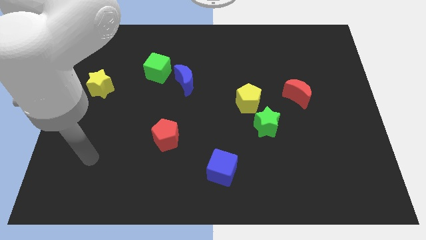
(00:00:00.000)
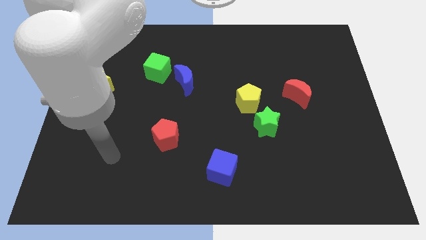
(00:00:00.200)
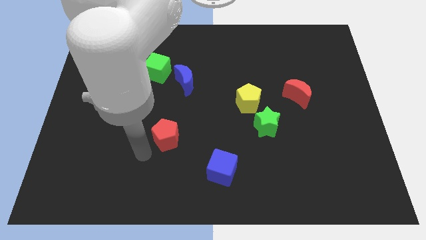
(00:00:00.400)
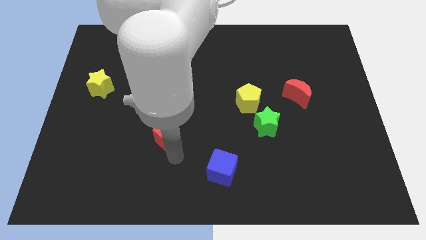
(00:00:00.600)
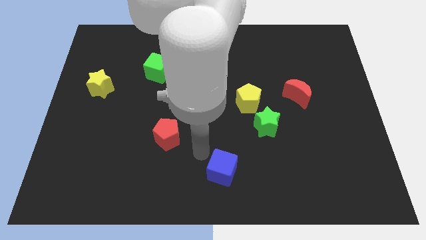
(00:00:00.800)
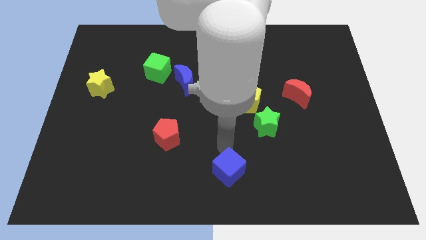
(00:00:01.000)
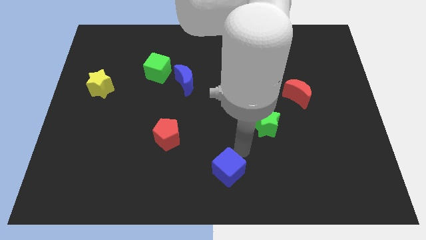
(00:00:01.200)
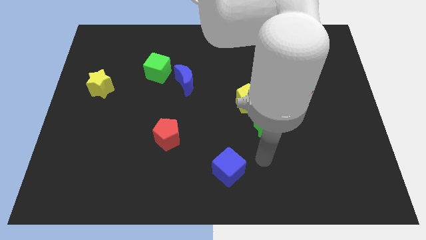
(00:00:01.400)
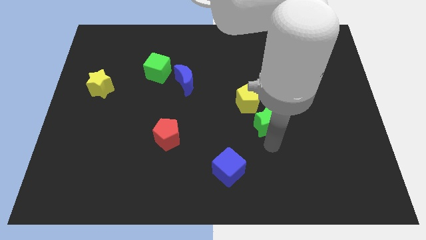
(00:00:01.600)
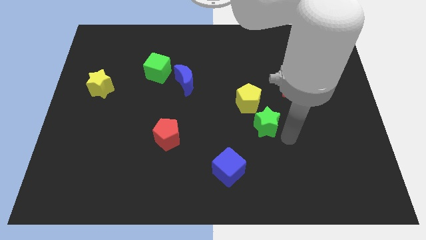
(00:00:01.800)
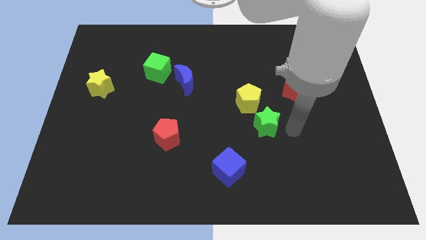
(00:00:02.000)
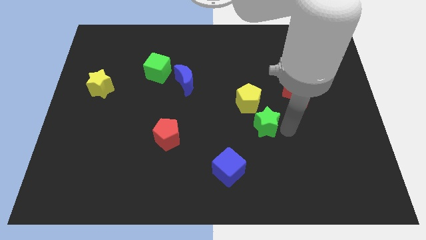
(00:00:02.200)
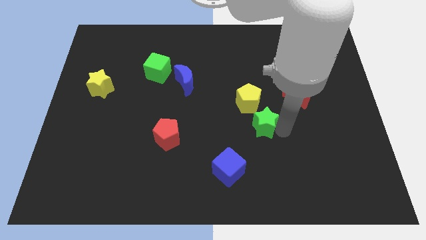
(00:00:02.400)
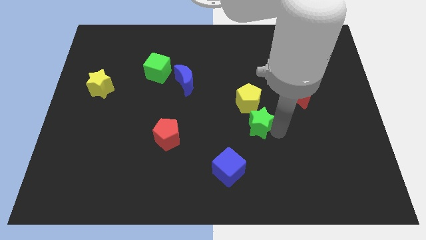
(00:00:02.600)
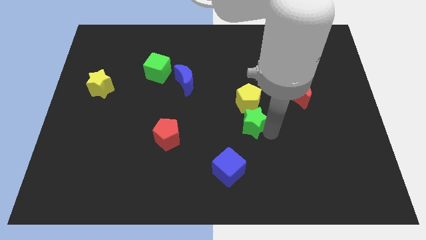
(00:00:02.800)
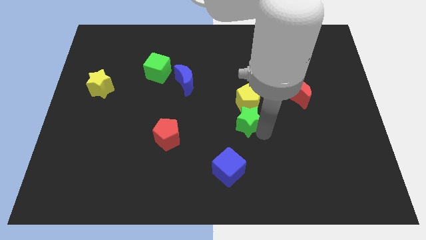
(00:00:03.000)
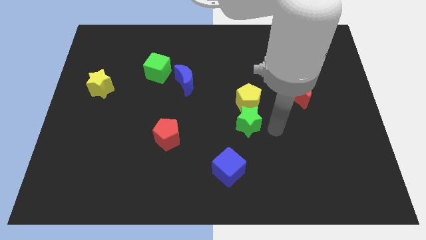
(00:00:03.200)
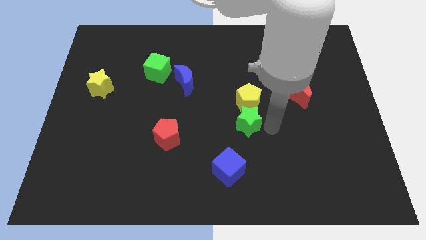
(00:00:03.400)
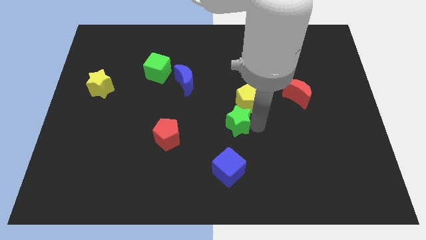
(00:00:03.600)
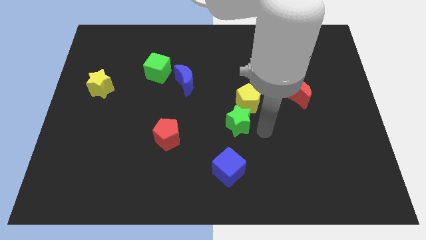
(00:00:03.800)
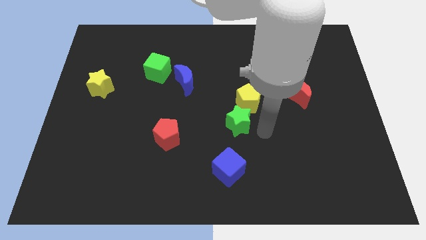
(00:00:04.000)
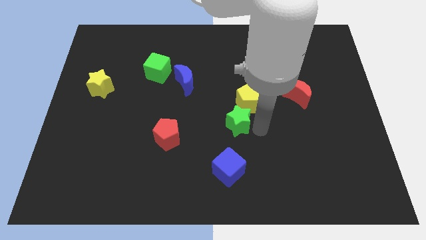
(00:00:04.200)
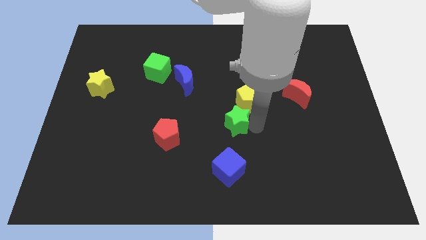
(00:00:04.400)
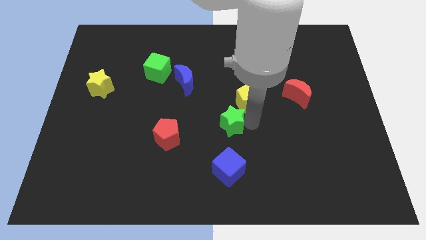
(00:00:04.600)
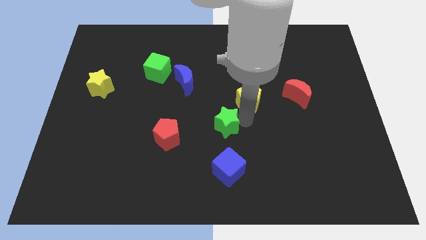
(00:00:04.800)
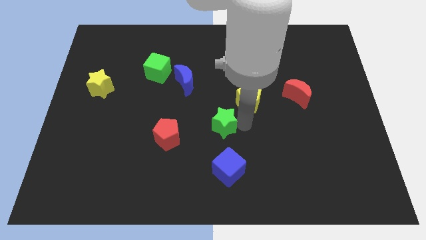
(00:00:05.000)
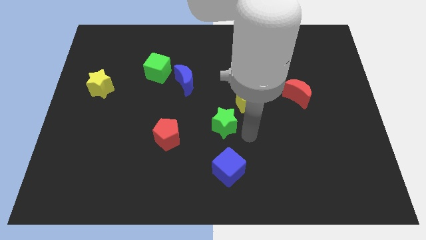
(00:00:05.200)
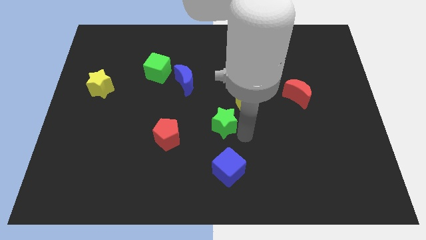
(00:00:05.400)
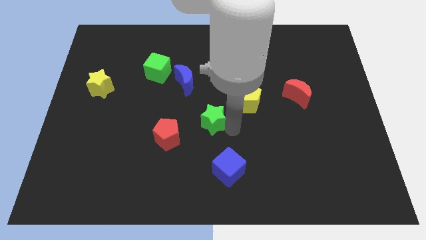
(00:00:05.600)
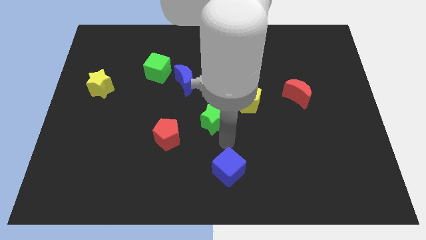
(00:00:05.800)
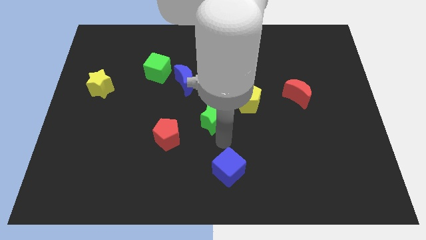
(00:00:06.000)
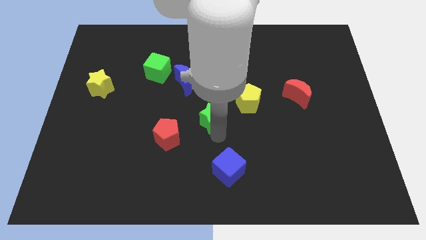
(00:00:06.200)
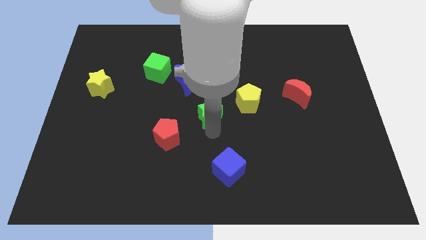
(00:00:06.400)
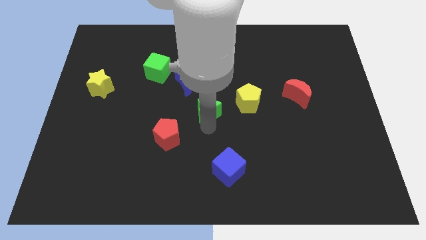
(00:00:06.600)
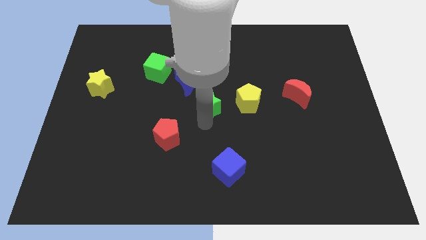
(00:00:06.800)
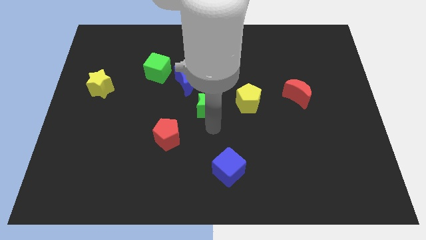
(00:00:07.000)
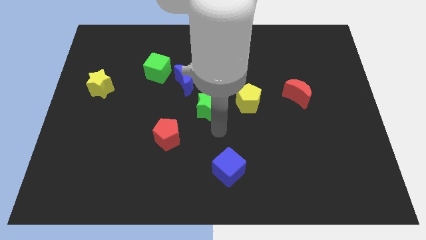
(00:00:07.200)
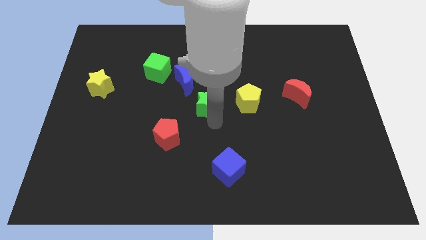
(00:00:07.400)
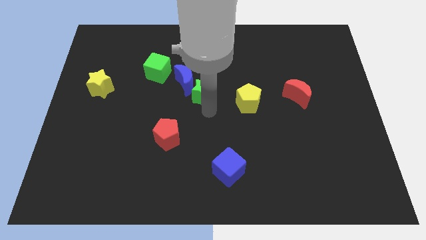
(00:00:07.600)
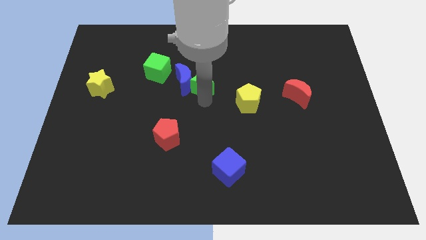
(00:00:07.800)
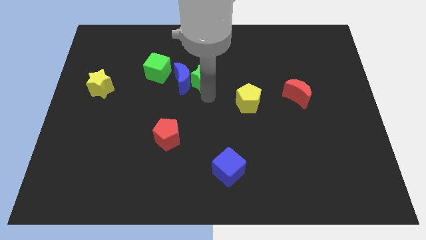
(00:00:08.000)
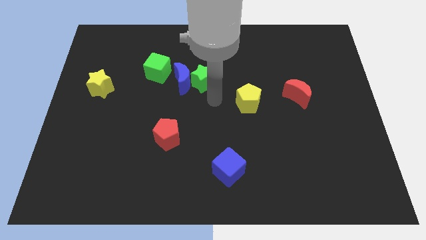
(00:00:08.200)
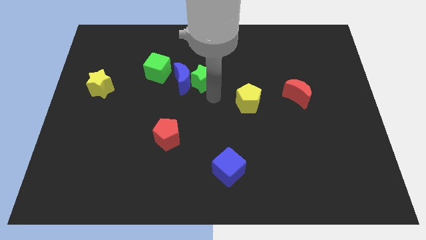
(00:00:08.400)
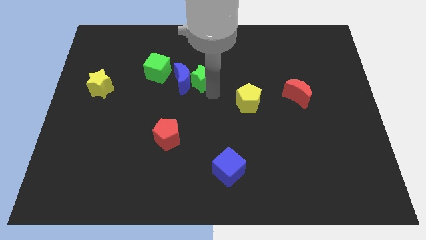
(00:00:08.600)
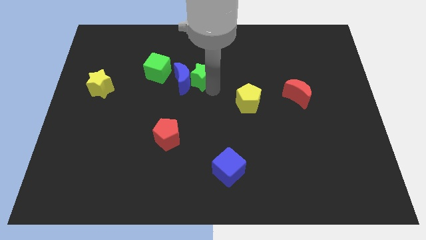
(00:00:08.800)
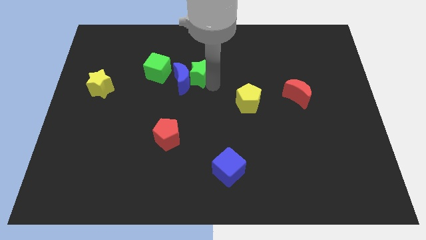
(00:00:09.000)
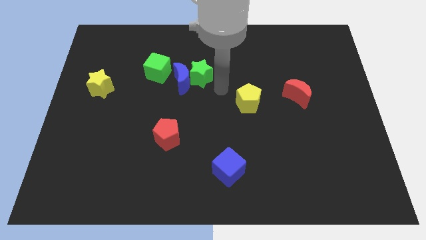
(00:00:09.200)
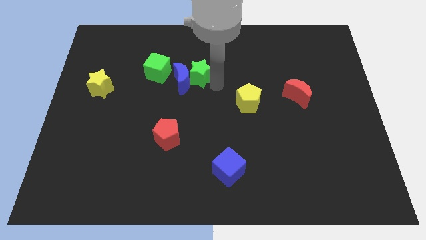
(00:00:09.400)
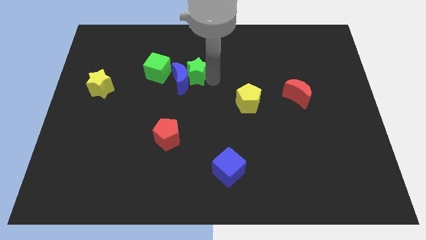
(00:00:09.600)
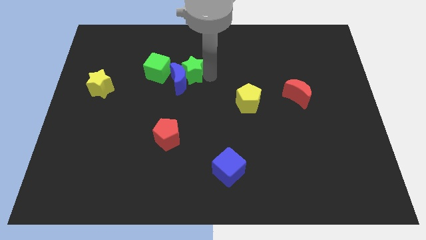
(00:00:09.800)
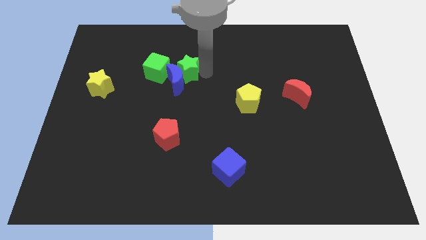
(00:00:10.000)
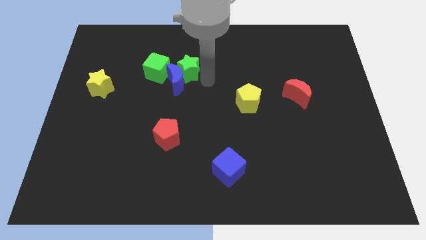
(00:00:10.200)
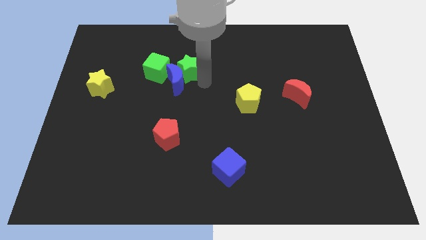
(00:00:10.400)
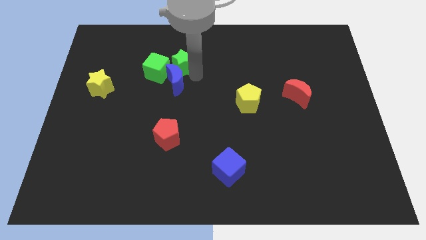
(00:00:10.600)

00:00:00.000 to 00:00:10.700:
put the green star diagonally up and to the left of the blue moon

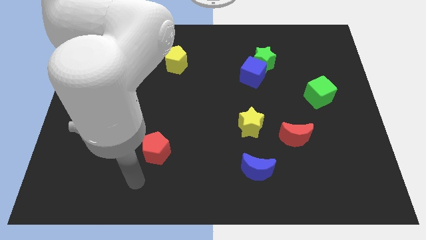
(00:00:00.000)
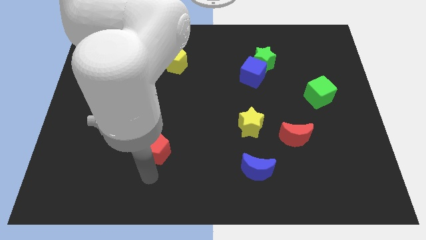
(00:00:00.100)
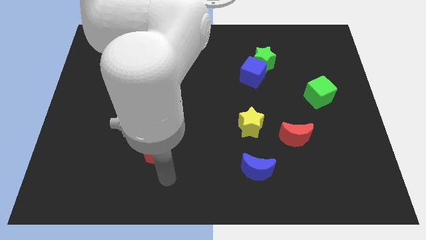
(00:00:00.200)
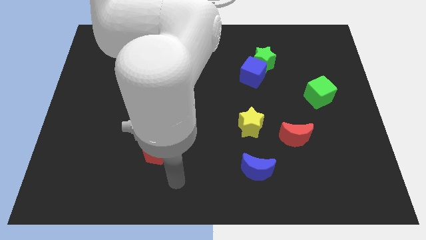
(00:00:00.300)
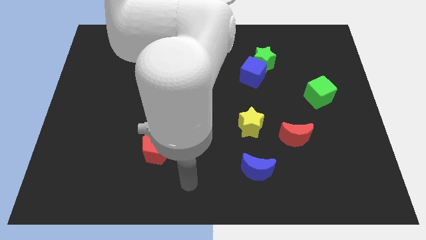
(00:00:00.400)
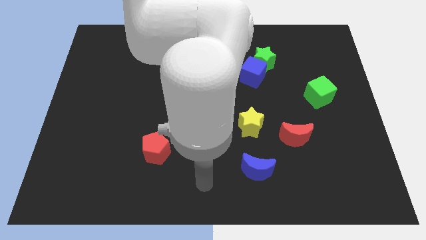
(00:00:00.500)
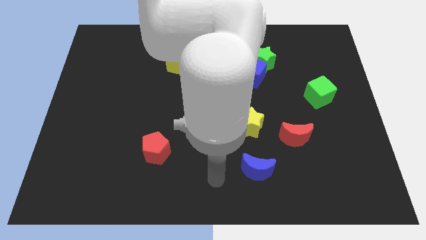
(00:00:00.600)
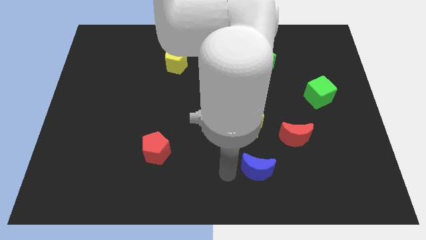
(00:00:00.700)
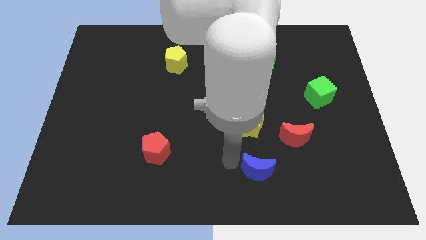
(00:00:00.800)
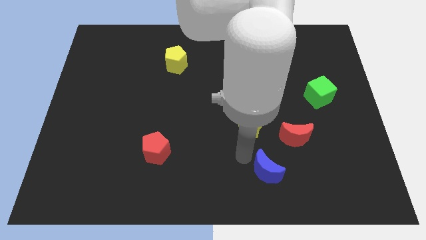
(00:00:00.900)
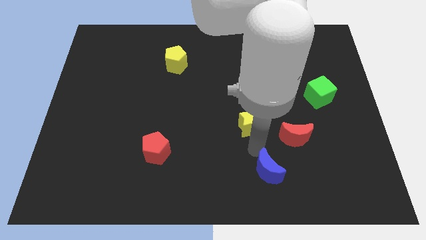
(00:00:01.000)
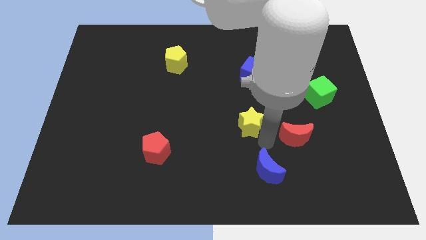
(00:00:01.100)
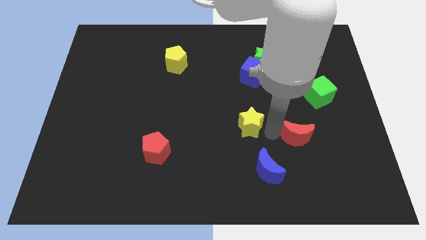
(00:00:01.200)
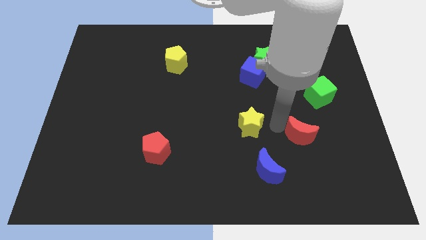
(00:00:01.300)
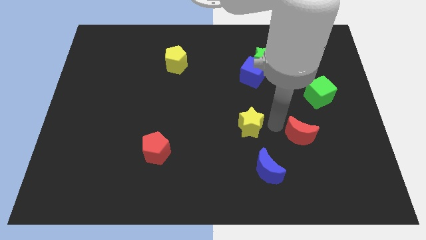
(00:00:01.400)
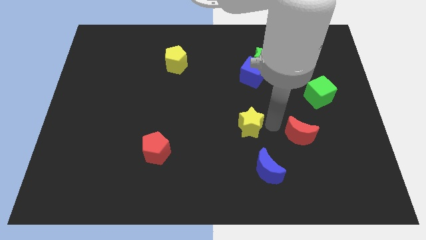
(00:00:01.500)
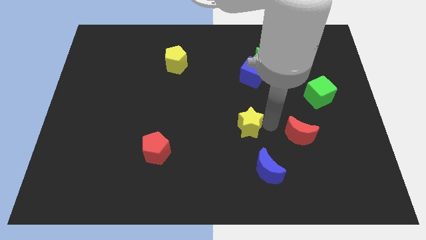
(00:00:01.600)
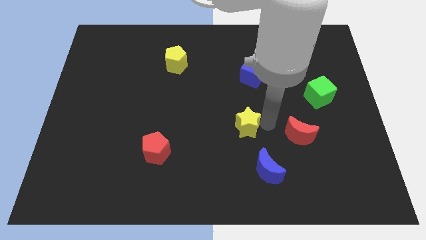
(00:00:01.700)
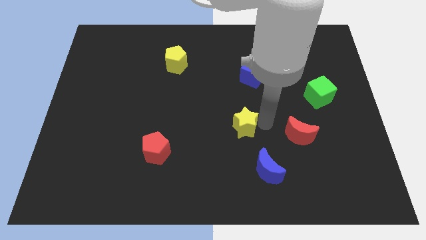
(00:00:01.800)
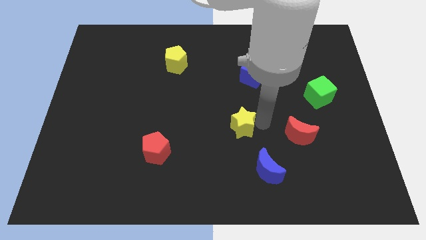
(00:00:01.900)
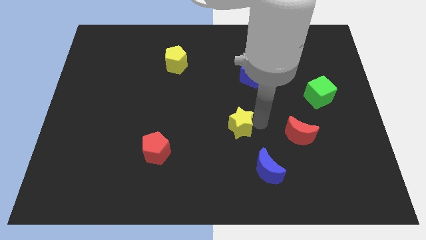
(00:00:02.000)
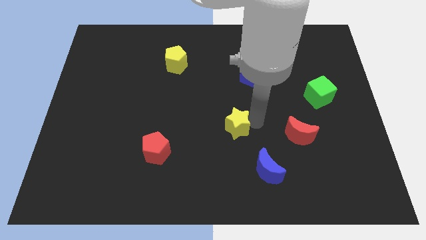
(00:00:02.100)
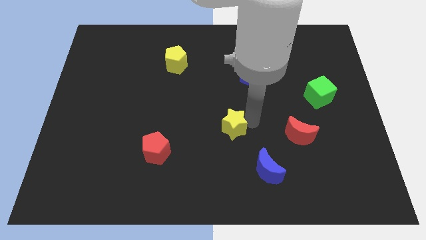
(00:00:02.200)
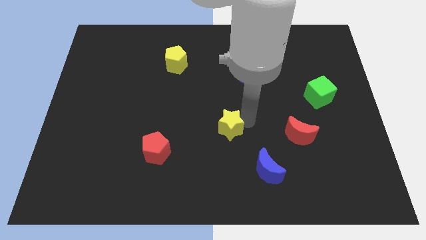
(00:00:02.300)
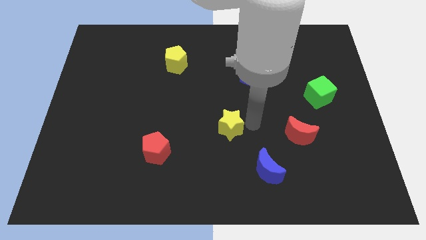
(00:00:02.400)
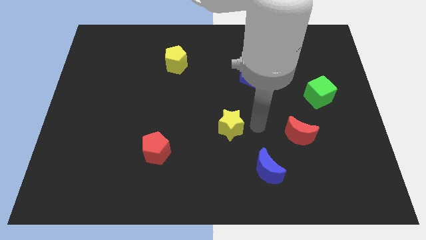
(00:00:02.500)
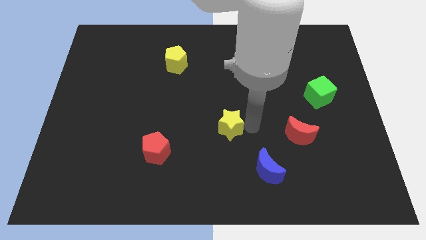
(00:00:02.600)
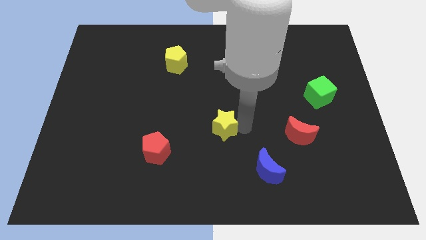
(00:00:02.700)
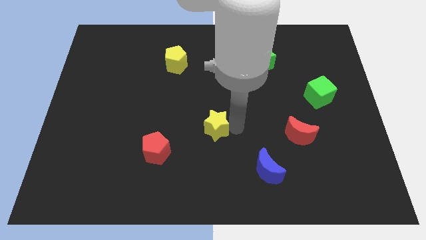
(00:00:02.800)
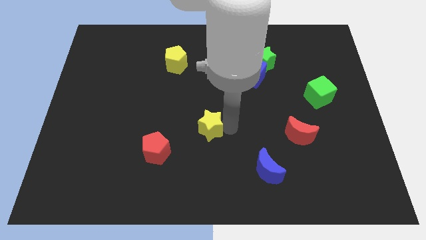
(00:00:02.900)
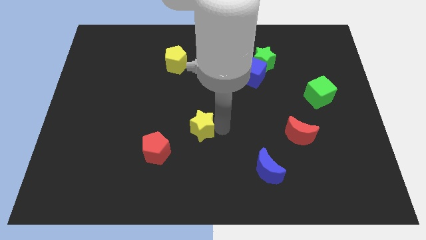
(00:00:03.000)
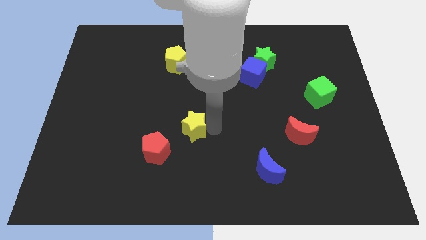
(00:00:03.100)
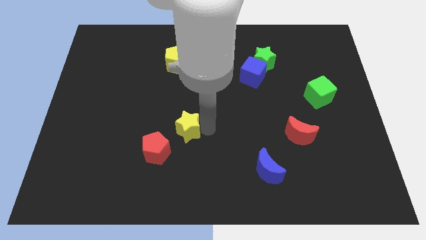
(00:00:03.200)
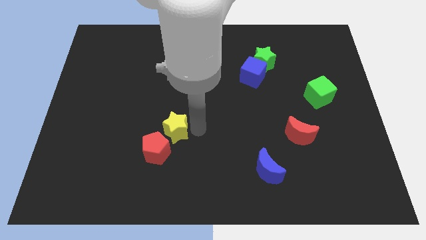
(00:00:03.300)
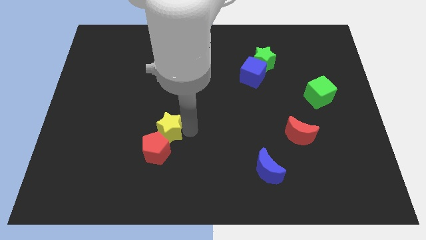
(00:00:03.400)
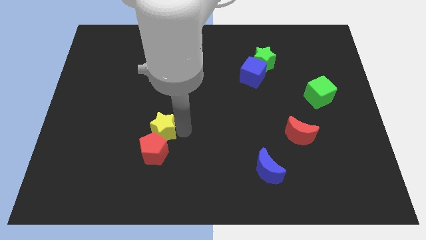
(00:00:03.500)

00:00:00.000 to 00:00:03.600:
slide the yellow star to the top left of the red pentagon
